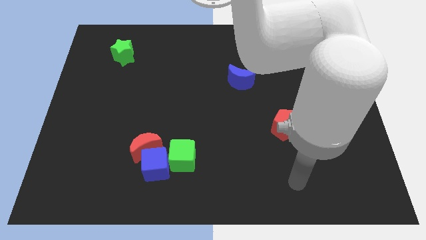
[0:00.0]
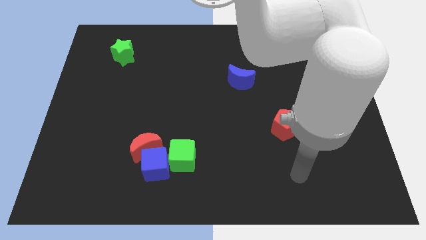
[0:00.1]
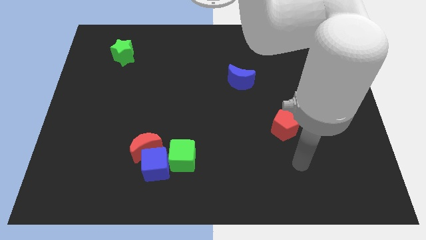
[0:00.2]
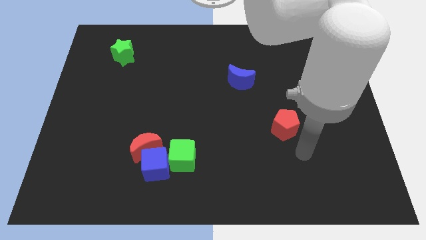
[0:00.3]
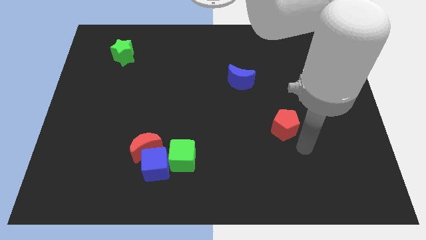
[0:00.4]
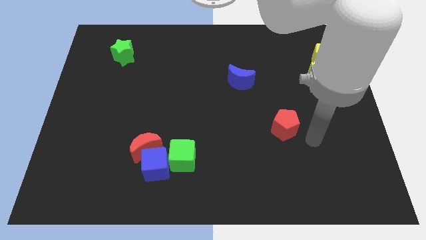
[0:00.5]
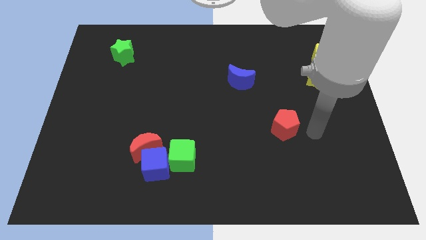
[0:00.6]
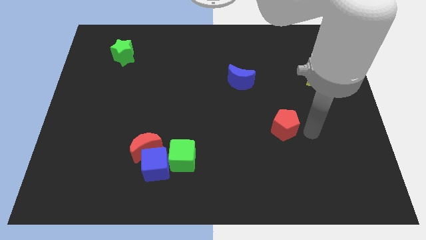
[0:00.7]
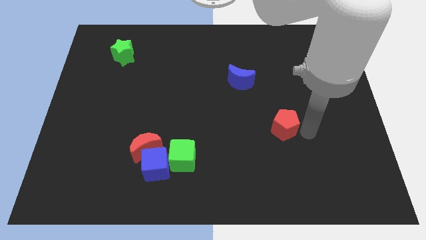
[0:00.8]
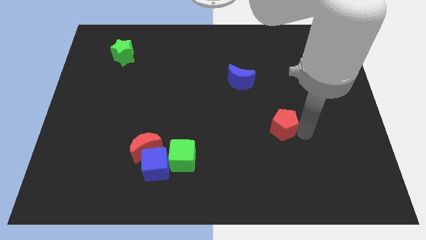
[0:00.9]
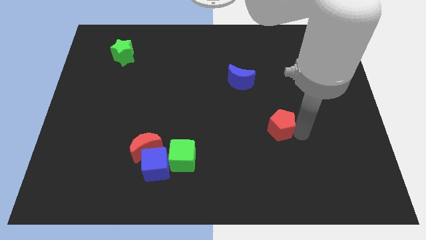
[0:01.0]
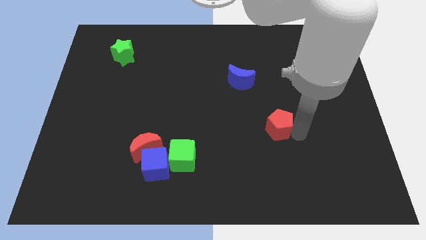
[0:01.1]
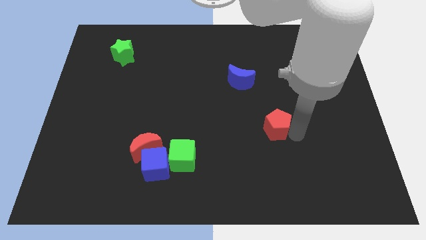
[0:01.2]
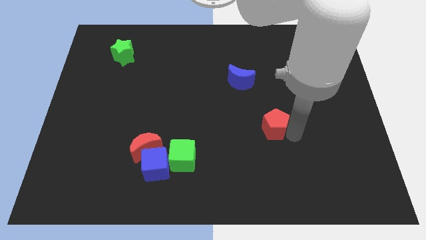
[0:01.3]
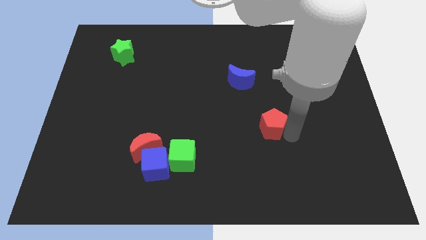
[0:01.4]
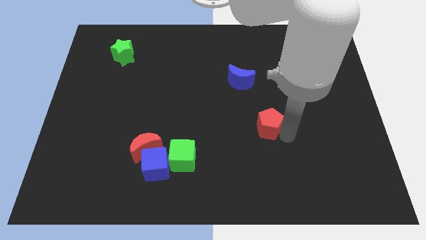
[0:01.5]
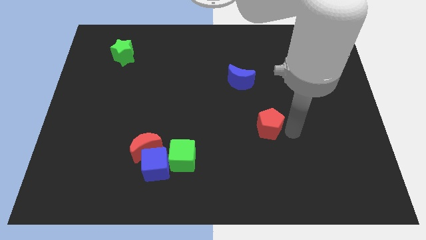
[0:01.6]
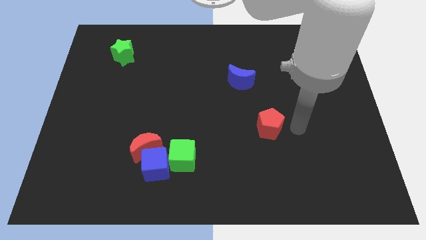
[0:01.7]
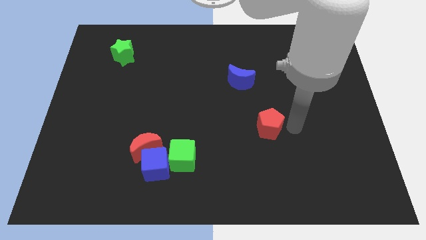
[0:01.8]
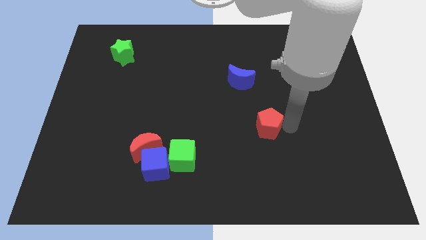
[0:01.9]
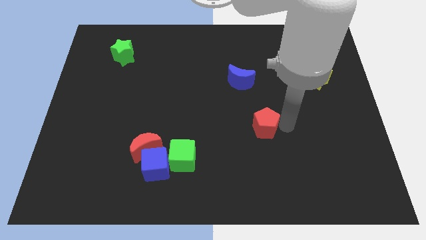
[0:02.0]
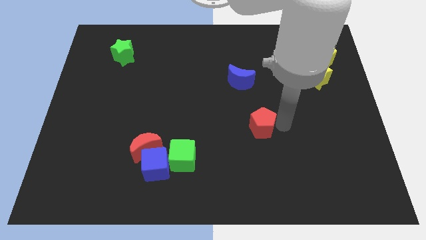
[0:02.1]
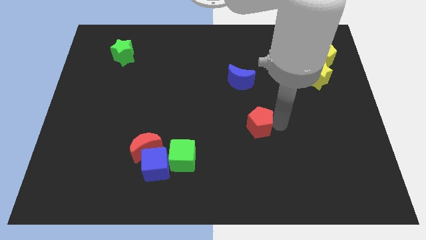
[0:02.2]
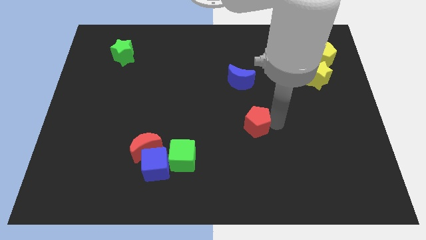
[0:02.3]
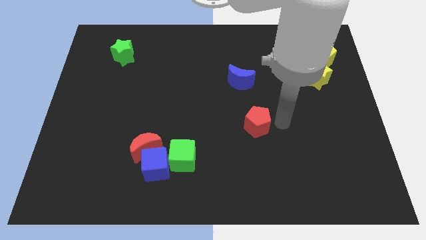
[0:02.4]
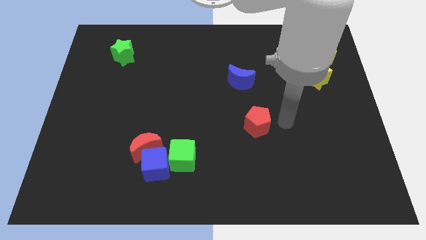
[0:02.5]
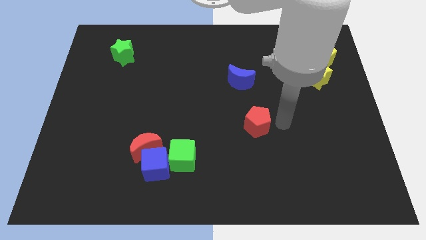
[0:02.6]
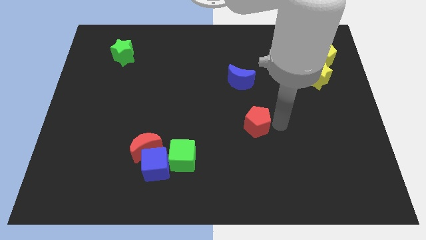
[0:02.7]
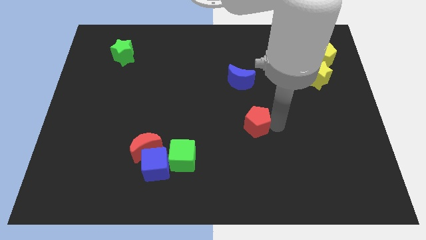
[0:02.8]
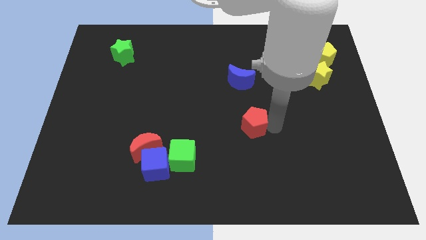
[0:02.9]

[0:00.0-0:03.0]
slightly slide the red pentagon left

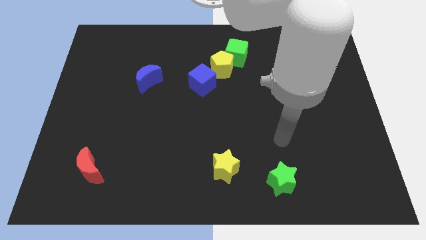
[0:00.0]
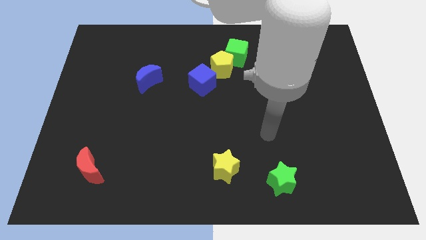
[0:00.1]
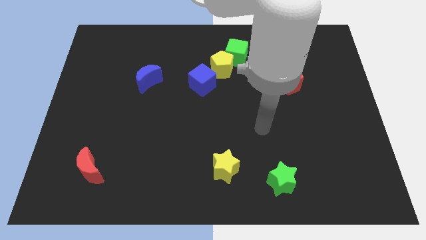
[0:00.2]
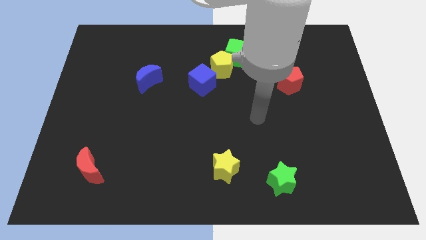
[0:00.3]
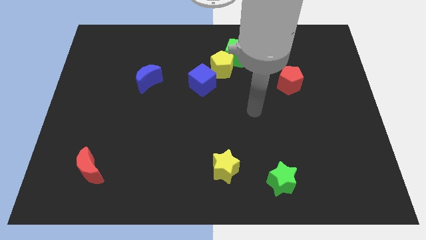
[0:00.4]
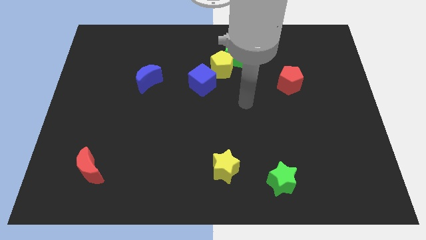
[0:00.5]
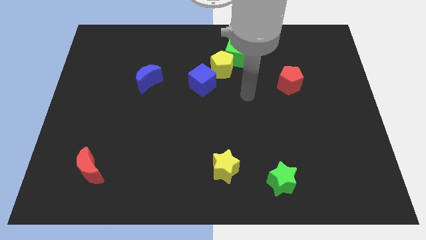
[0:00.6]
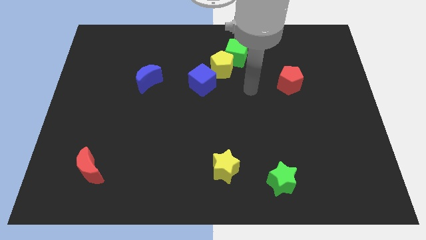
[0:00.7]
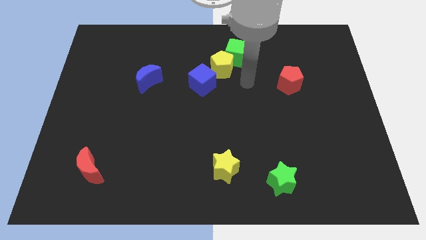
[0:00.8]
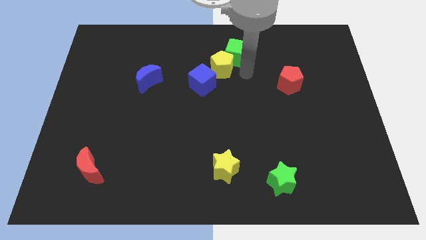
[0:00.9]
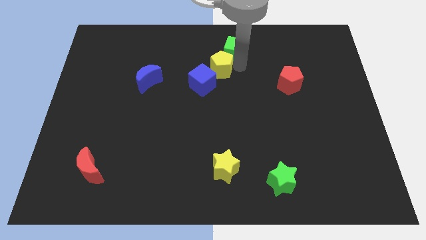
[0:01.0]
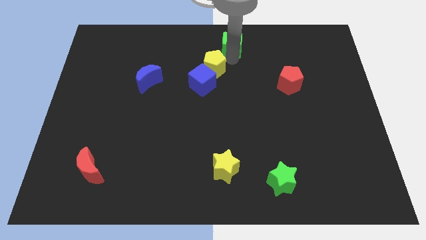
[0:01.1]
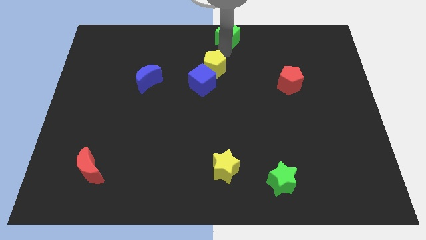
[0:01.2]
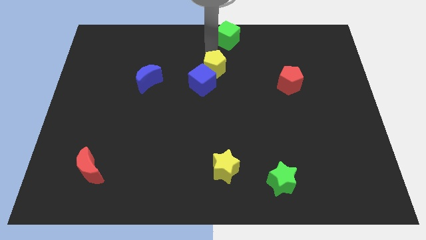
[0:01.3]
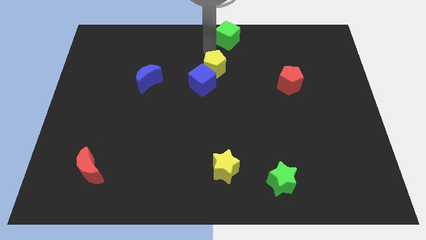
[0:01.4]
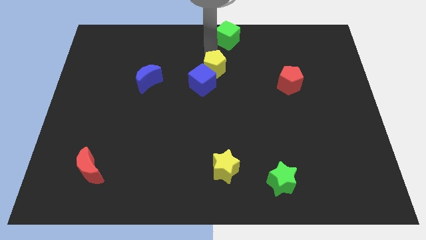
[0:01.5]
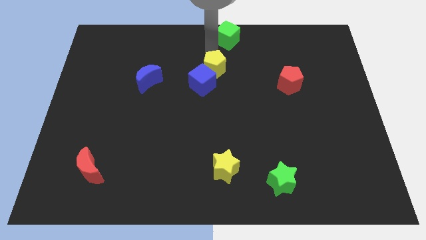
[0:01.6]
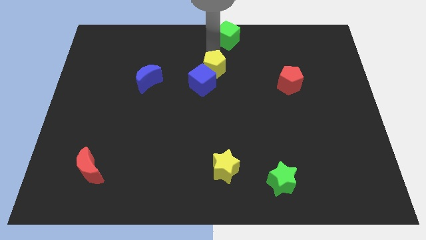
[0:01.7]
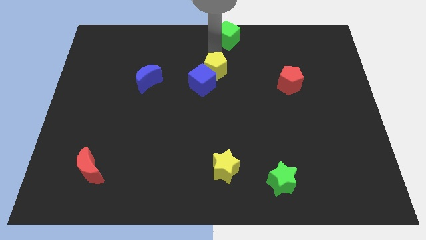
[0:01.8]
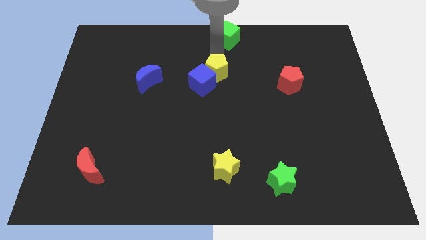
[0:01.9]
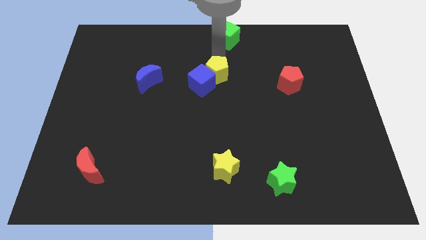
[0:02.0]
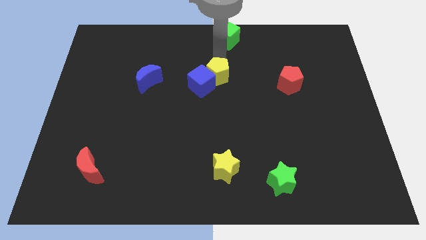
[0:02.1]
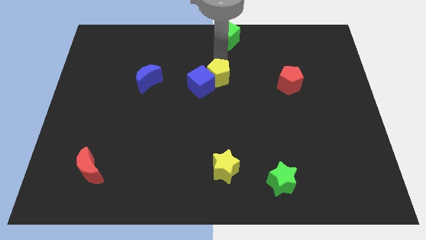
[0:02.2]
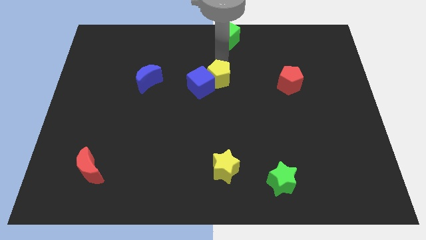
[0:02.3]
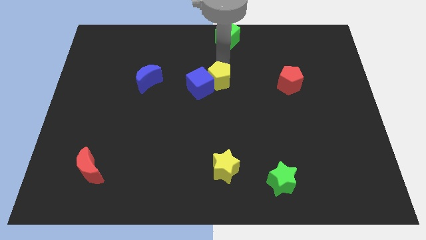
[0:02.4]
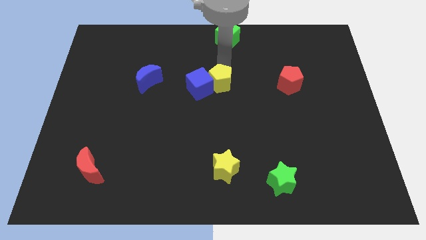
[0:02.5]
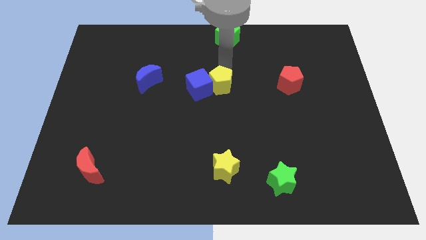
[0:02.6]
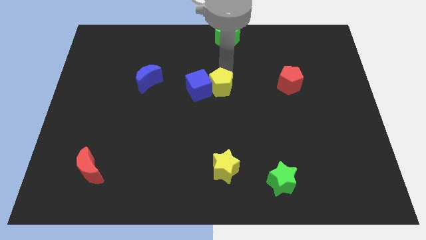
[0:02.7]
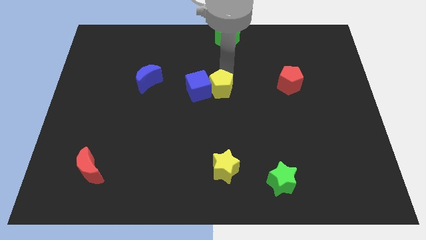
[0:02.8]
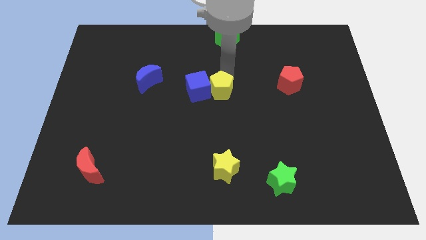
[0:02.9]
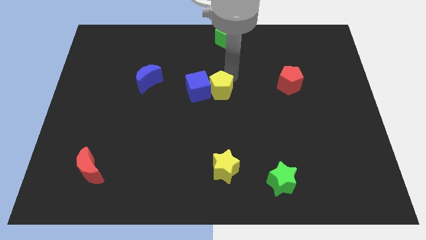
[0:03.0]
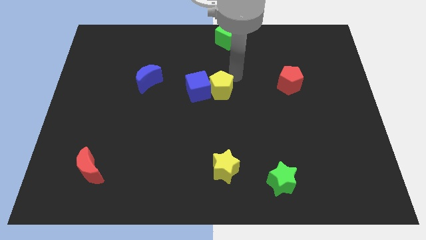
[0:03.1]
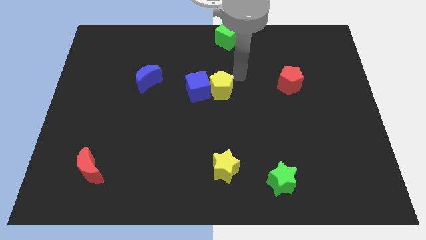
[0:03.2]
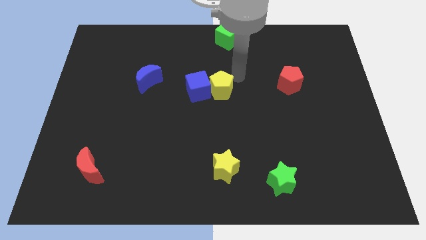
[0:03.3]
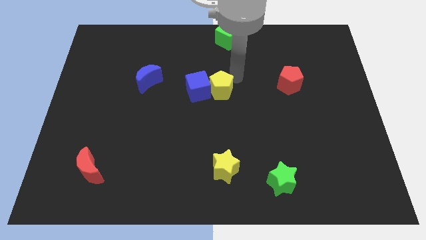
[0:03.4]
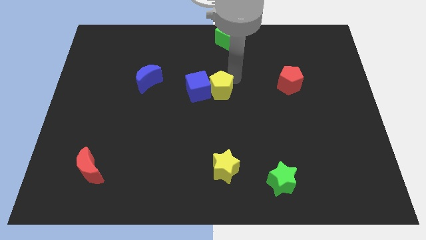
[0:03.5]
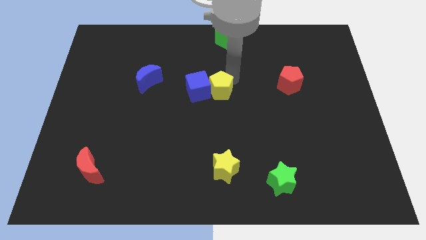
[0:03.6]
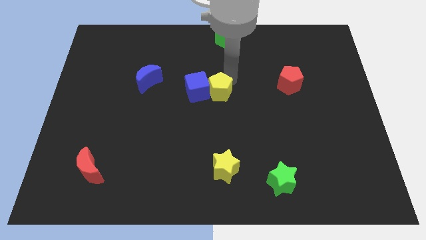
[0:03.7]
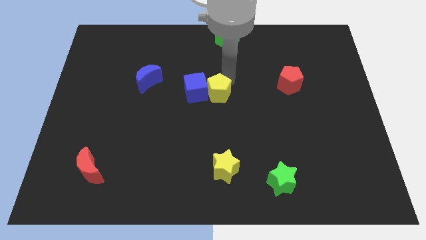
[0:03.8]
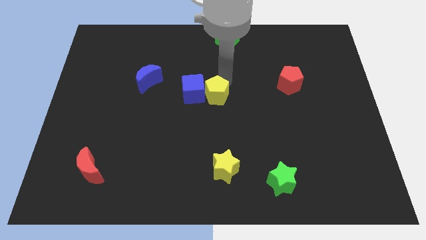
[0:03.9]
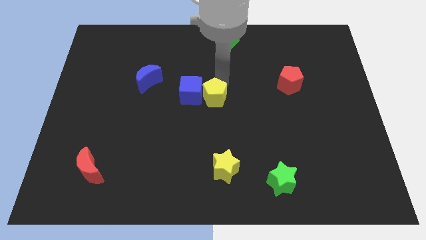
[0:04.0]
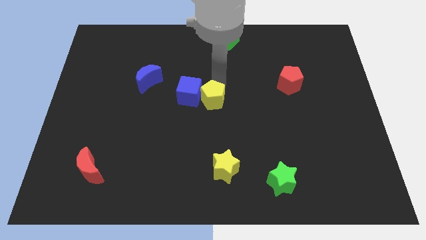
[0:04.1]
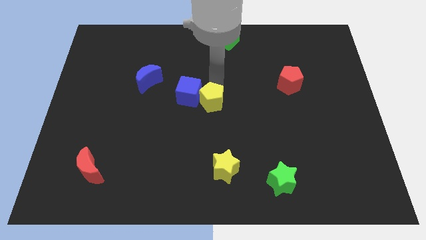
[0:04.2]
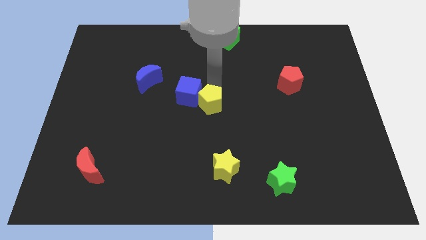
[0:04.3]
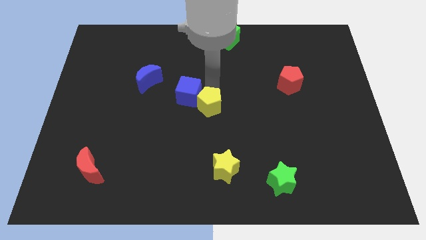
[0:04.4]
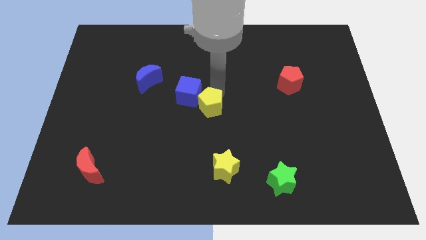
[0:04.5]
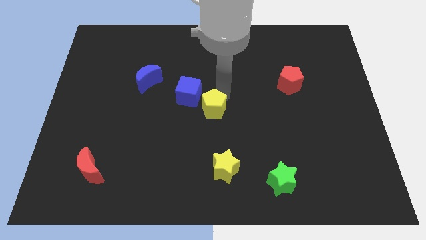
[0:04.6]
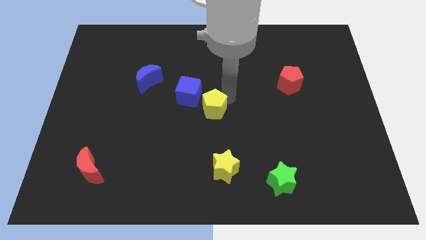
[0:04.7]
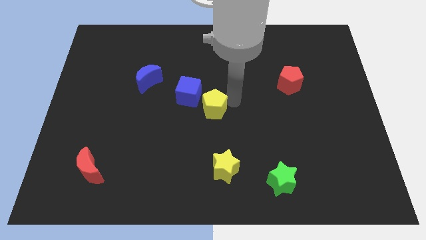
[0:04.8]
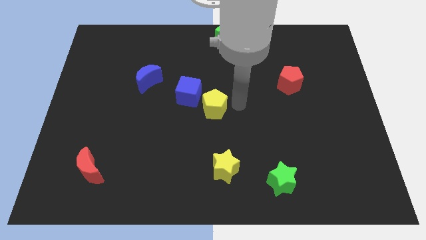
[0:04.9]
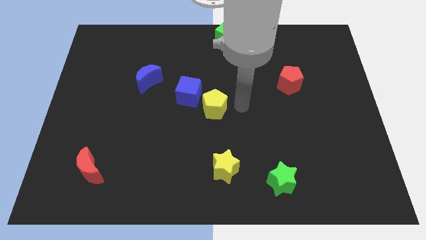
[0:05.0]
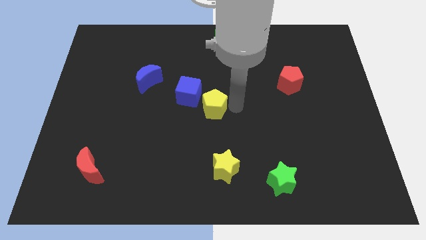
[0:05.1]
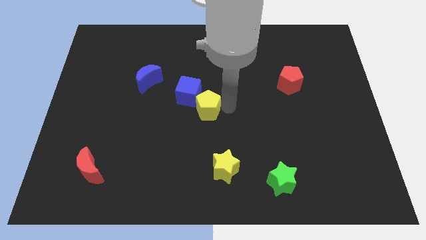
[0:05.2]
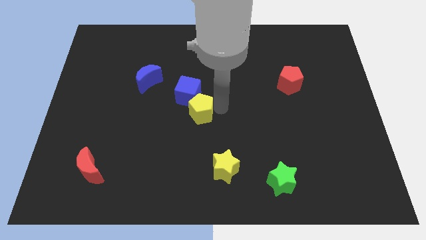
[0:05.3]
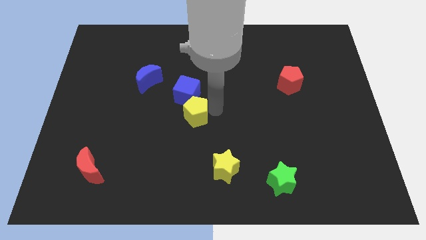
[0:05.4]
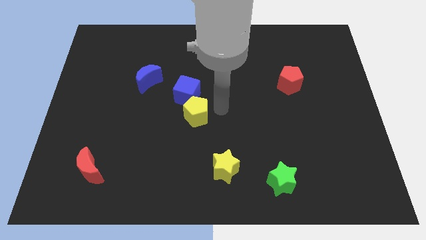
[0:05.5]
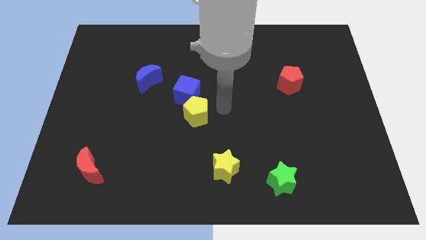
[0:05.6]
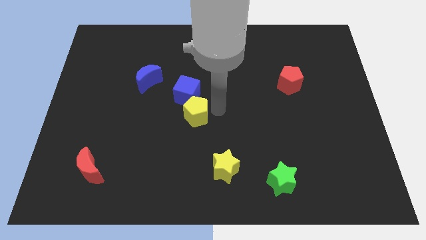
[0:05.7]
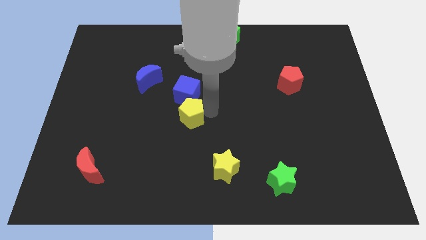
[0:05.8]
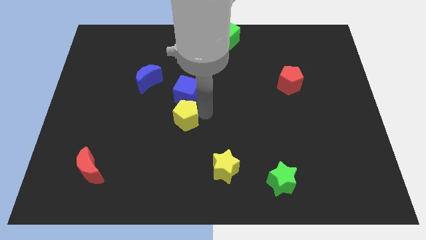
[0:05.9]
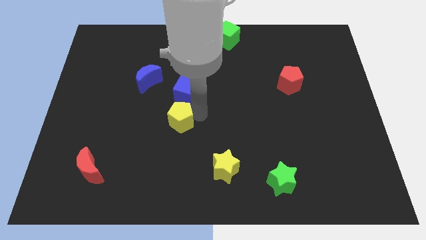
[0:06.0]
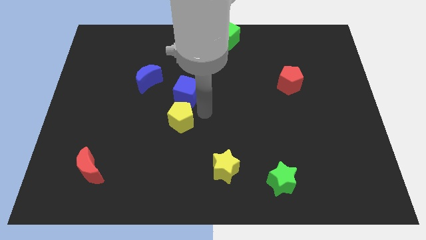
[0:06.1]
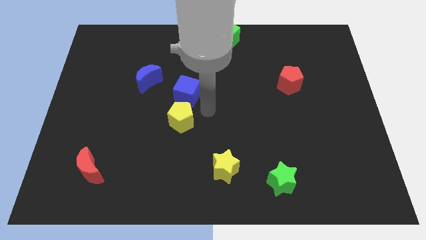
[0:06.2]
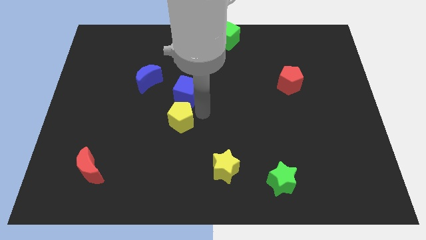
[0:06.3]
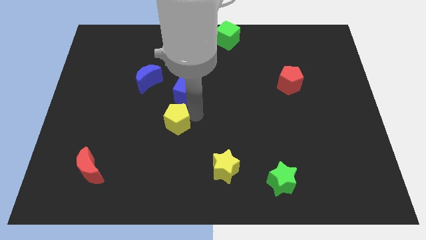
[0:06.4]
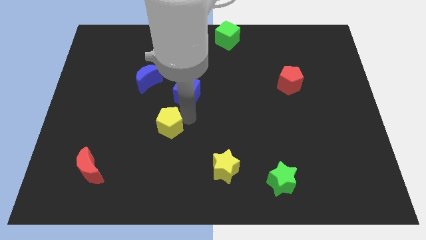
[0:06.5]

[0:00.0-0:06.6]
move the yellow pentagon downwards and left diagonally
